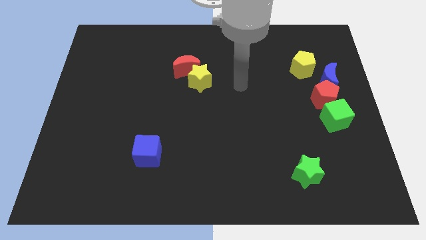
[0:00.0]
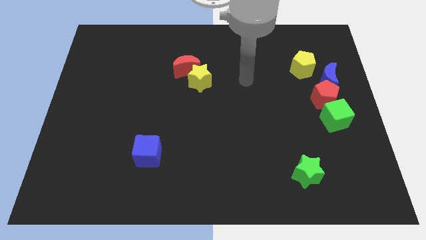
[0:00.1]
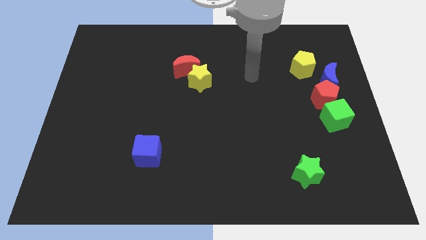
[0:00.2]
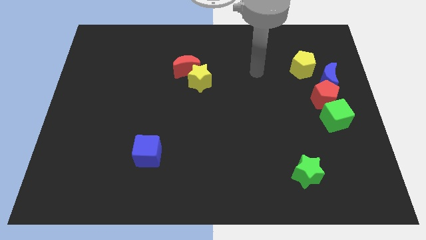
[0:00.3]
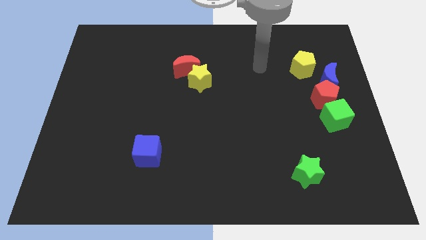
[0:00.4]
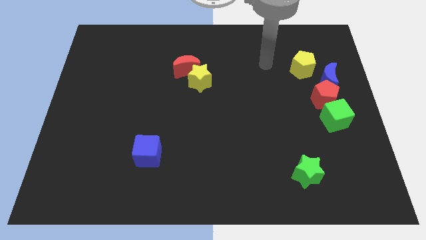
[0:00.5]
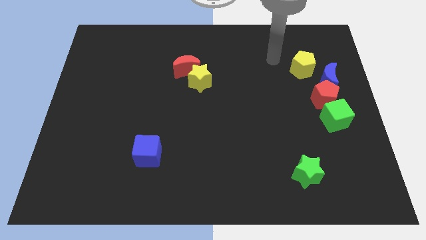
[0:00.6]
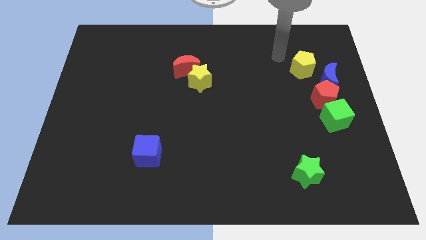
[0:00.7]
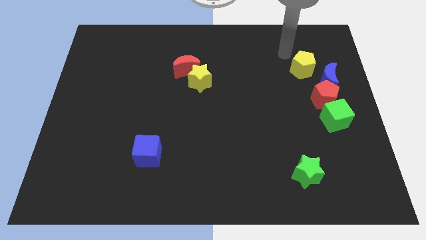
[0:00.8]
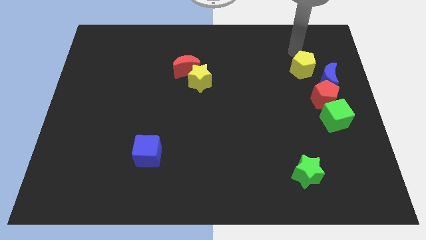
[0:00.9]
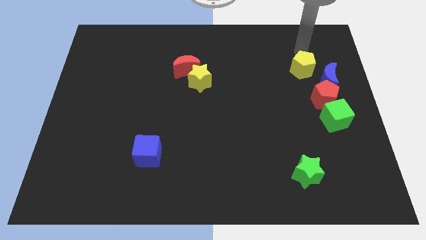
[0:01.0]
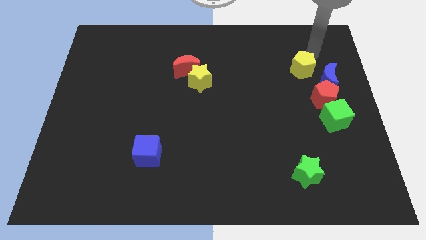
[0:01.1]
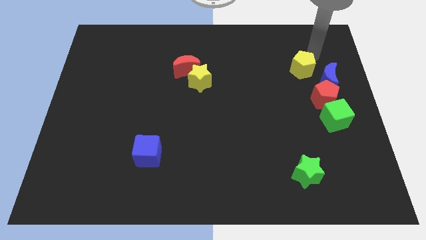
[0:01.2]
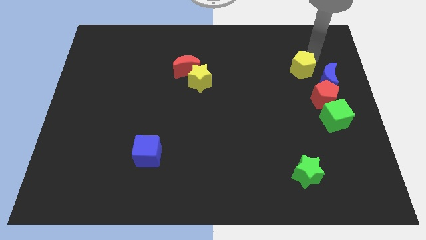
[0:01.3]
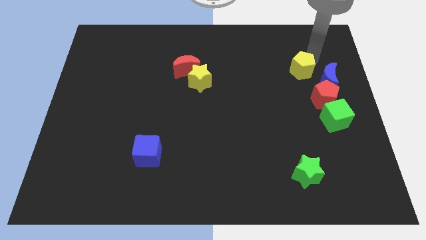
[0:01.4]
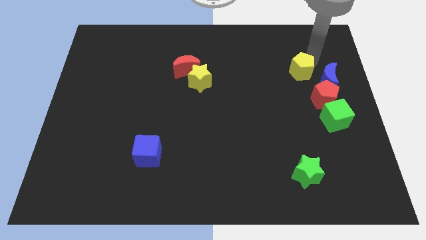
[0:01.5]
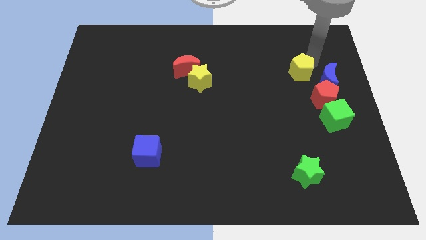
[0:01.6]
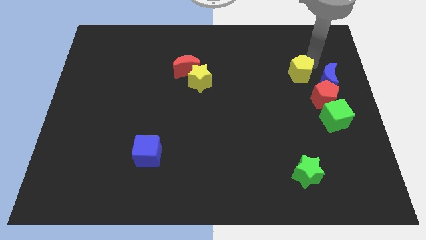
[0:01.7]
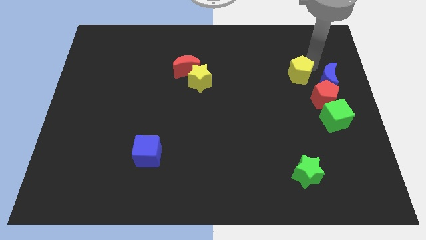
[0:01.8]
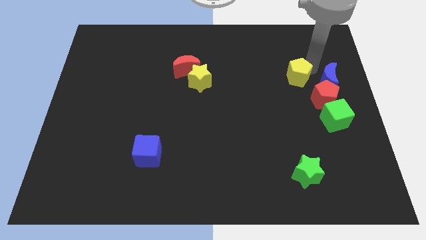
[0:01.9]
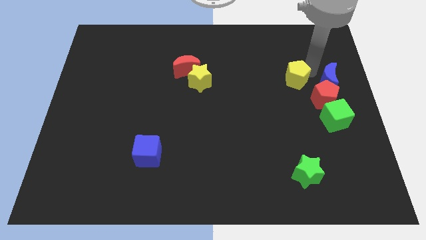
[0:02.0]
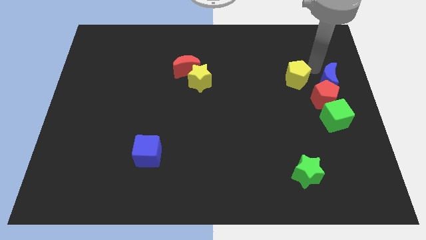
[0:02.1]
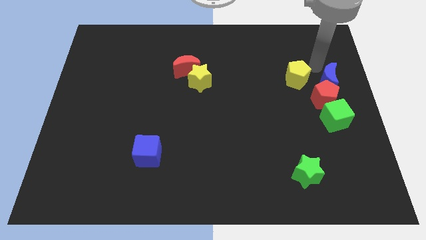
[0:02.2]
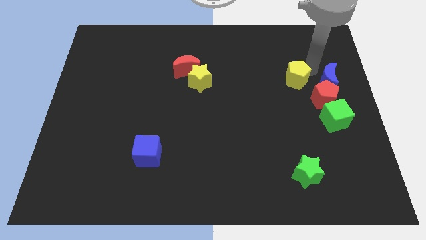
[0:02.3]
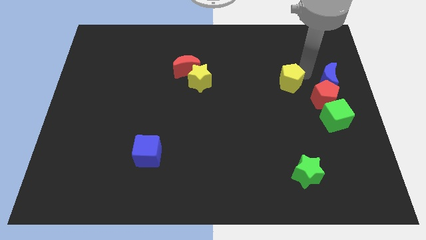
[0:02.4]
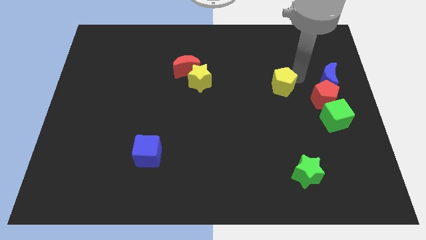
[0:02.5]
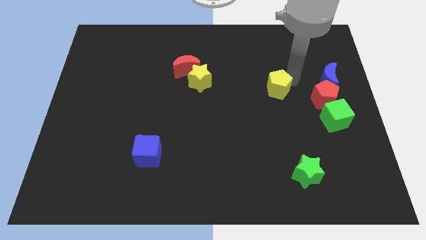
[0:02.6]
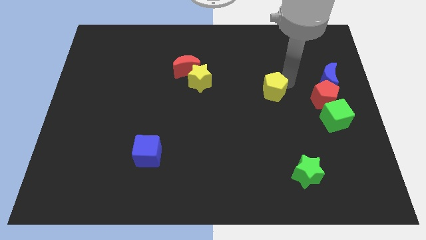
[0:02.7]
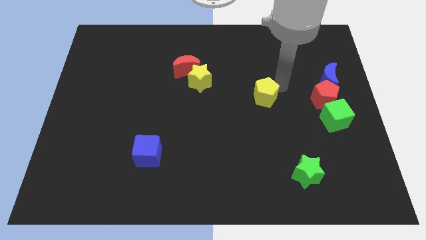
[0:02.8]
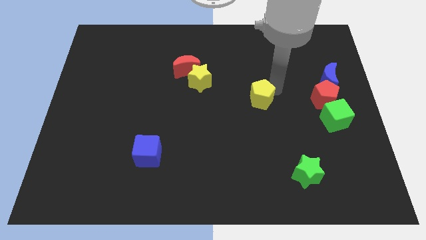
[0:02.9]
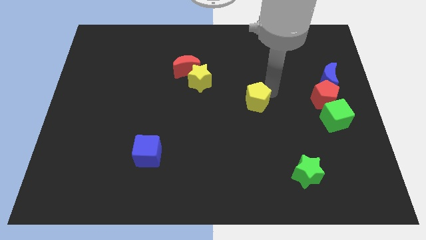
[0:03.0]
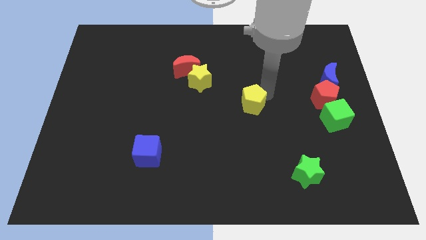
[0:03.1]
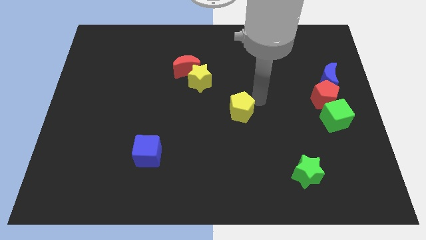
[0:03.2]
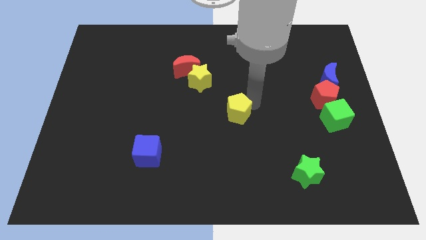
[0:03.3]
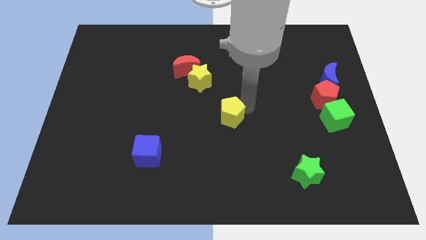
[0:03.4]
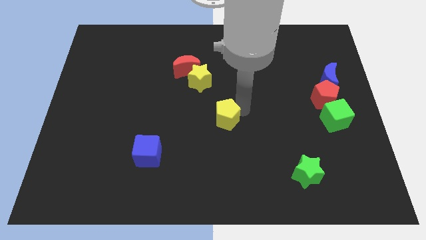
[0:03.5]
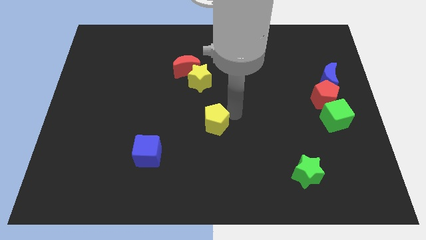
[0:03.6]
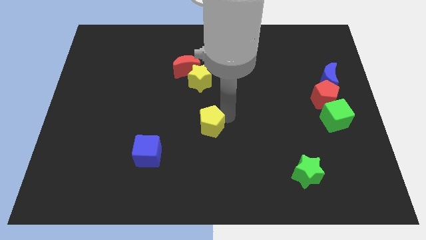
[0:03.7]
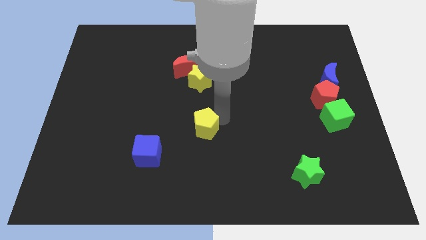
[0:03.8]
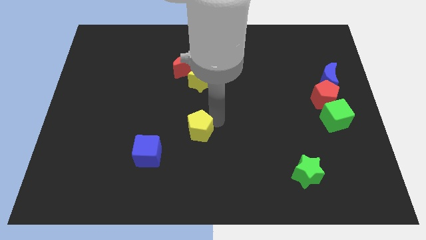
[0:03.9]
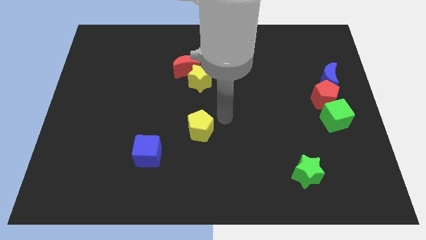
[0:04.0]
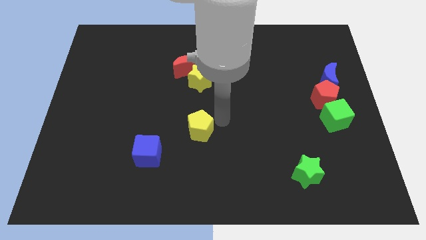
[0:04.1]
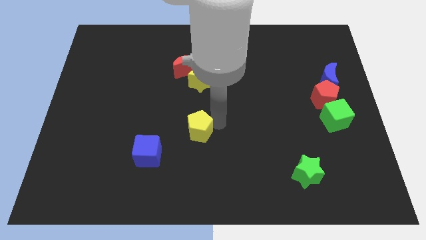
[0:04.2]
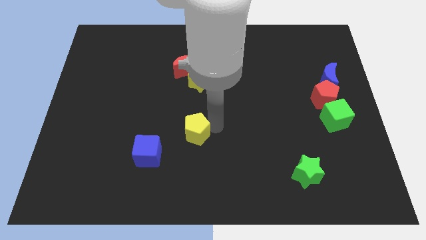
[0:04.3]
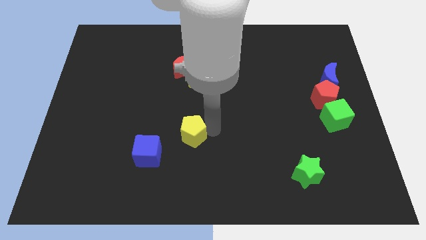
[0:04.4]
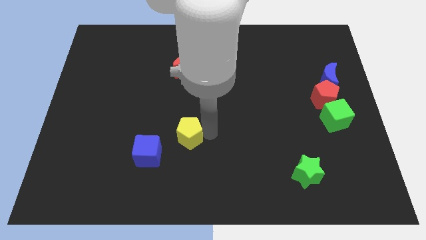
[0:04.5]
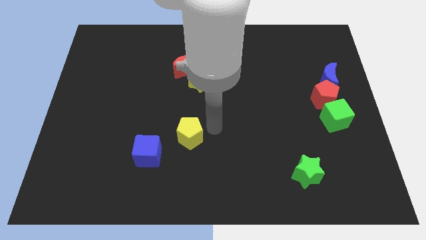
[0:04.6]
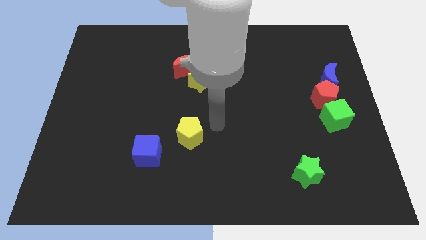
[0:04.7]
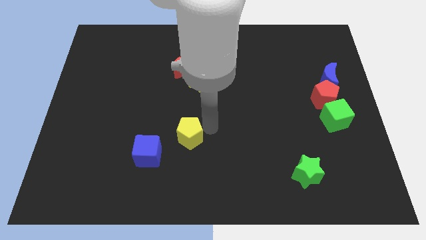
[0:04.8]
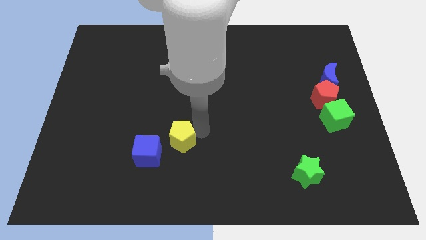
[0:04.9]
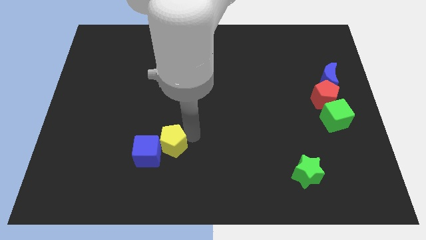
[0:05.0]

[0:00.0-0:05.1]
push the yellow pentagon towards the blue cube

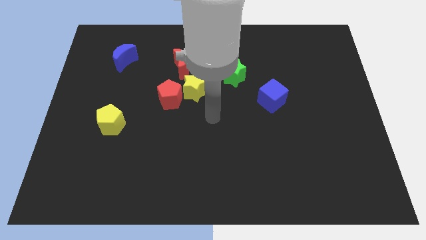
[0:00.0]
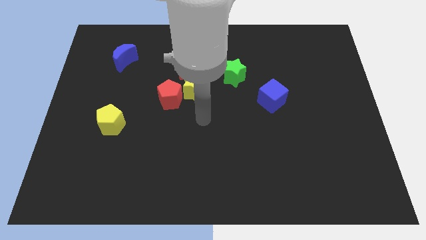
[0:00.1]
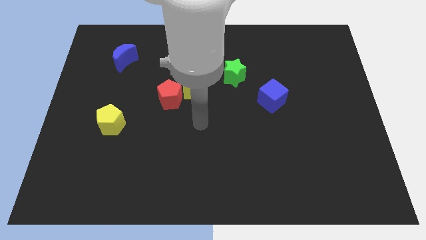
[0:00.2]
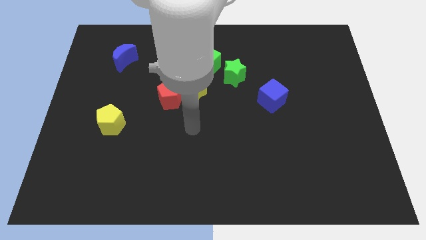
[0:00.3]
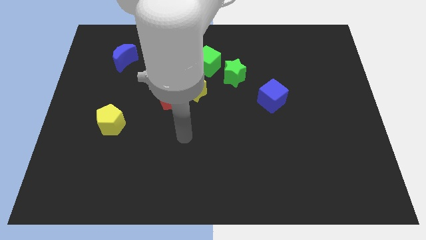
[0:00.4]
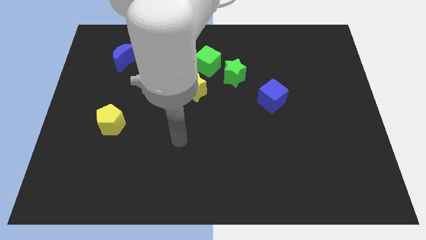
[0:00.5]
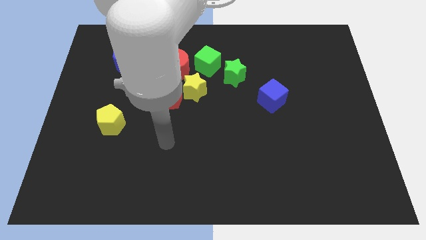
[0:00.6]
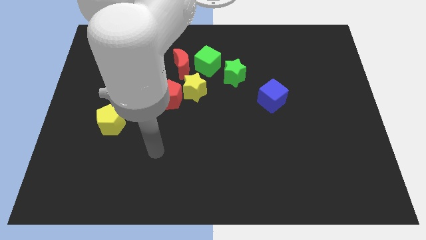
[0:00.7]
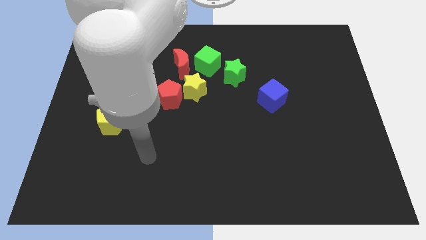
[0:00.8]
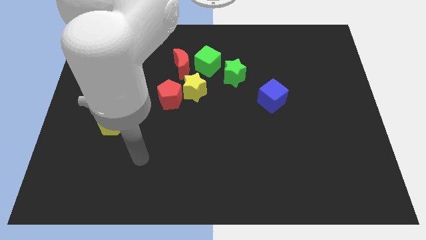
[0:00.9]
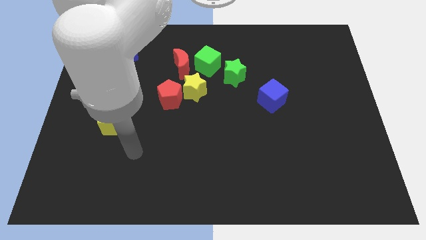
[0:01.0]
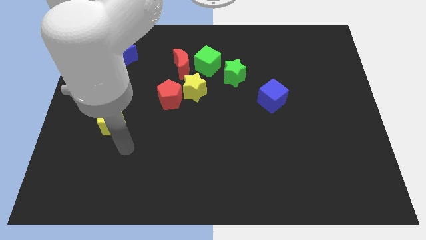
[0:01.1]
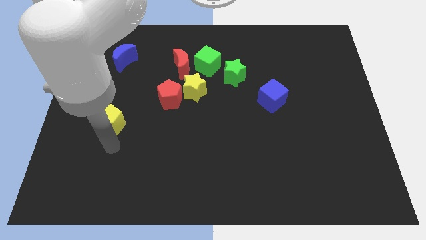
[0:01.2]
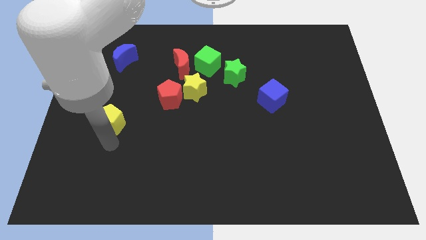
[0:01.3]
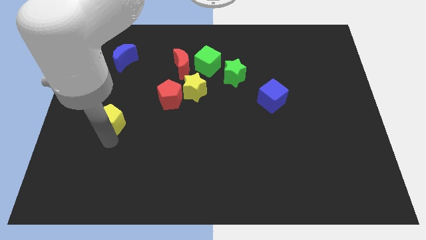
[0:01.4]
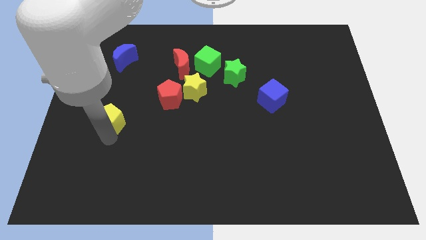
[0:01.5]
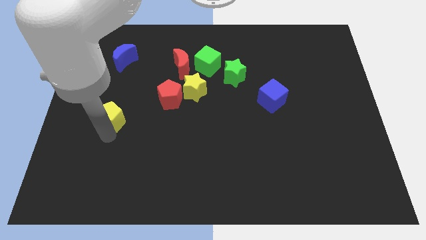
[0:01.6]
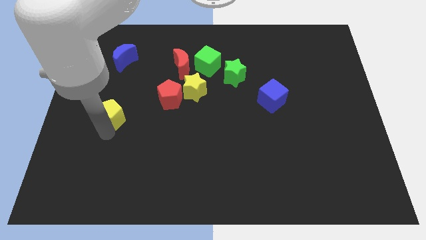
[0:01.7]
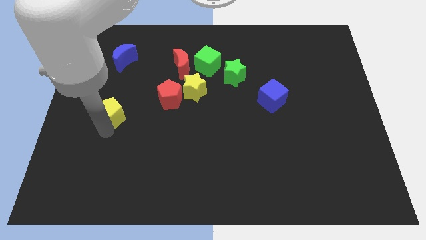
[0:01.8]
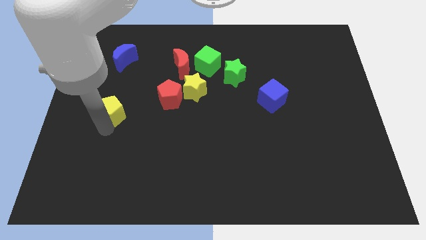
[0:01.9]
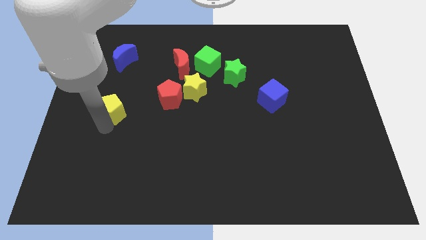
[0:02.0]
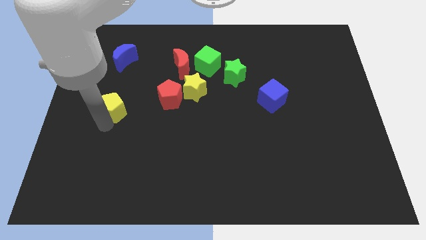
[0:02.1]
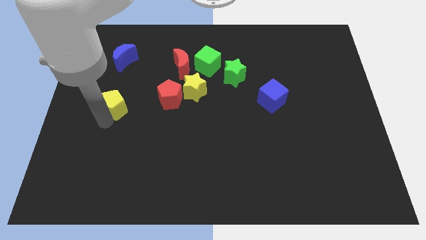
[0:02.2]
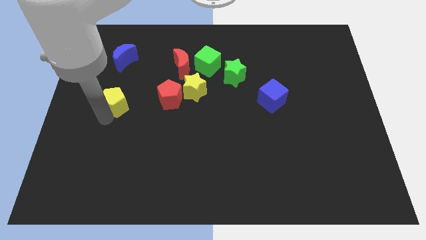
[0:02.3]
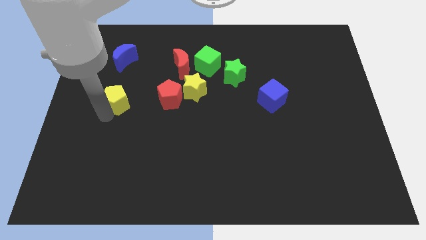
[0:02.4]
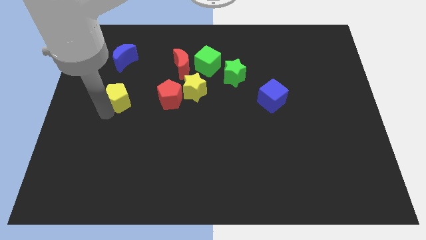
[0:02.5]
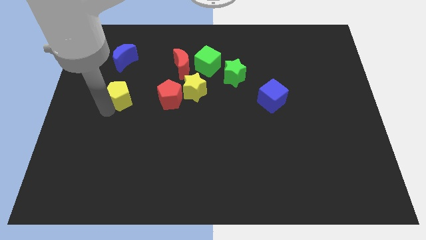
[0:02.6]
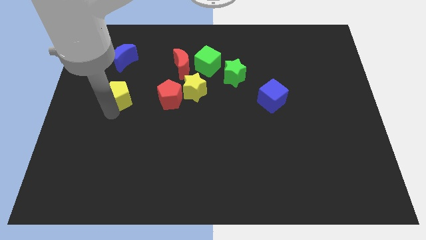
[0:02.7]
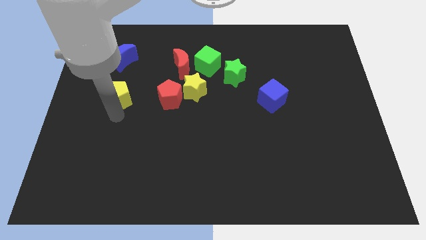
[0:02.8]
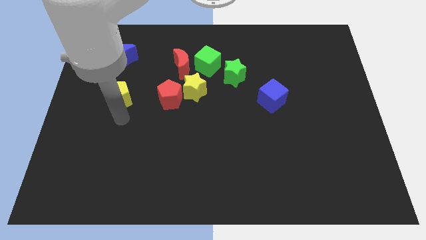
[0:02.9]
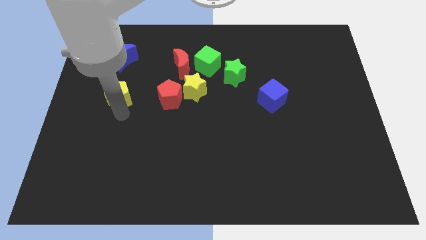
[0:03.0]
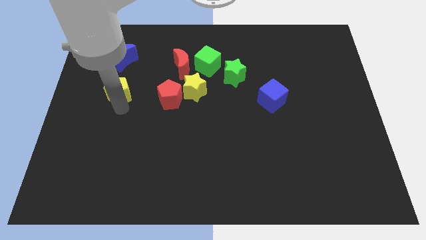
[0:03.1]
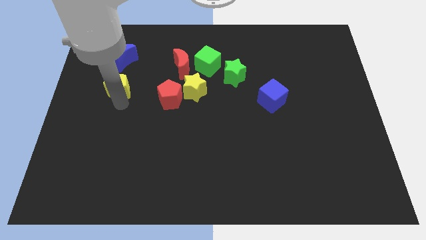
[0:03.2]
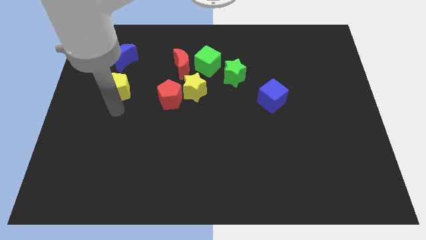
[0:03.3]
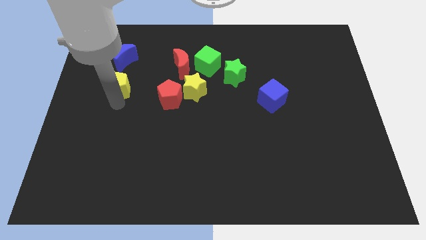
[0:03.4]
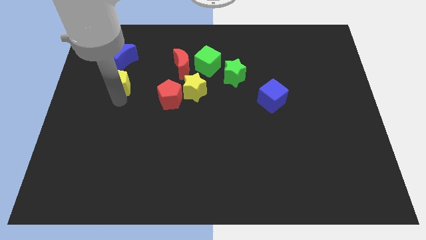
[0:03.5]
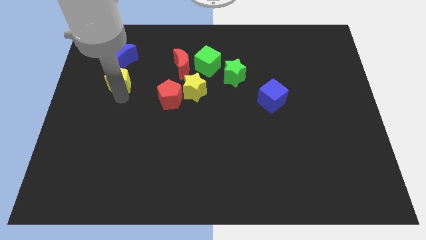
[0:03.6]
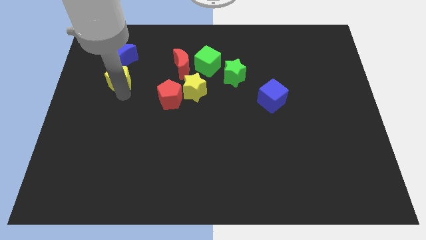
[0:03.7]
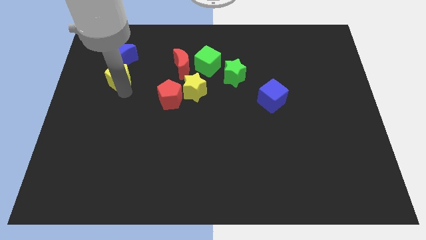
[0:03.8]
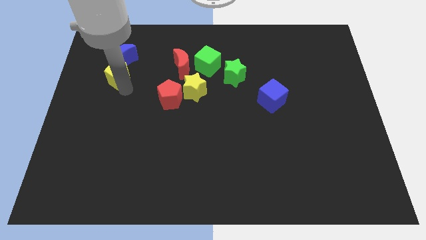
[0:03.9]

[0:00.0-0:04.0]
push the yellow pentagon next to the blue moon
